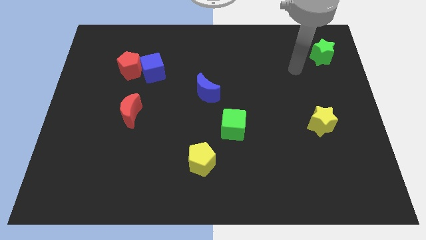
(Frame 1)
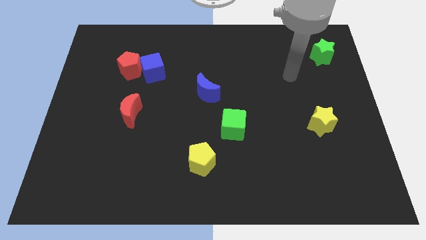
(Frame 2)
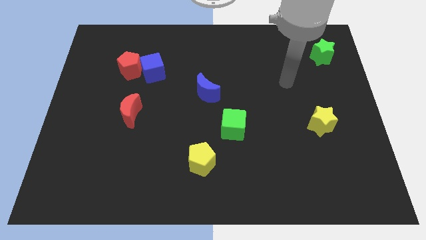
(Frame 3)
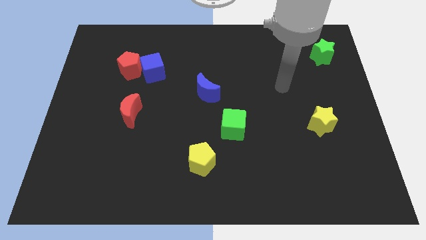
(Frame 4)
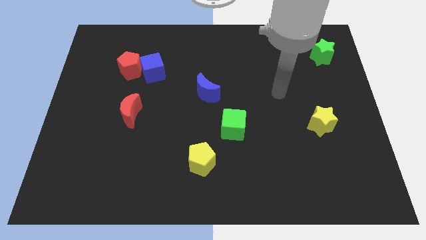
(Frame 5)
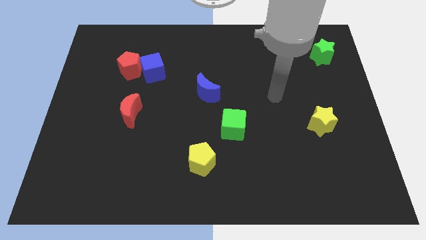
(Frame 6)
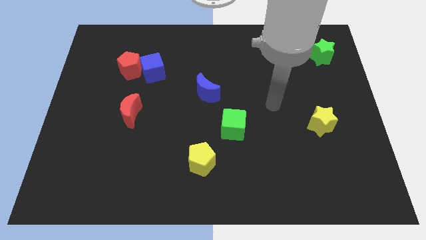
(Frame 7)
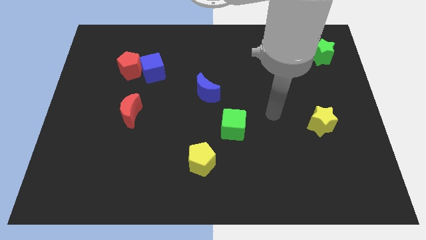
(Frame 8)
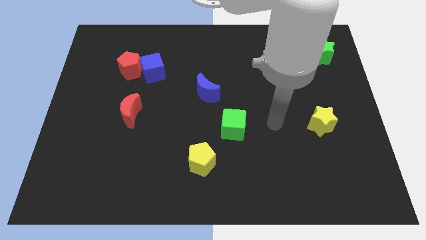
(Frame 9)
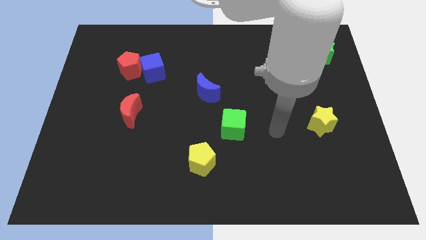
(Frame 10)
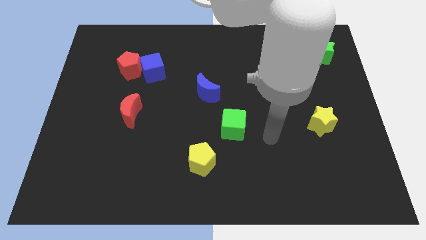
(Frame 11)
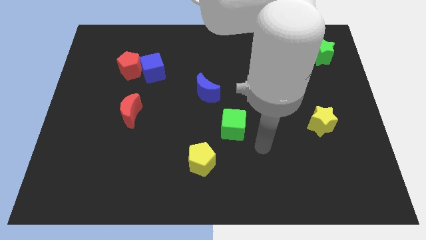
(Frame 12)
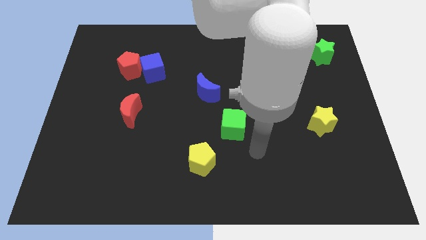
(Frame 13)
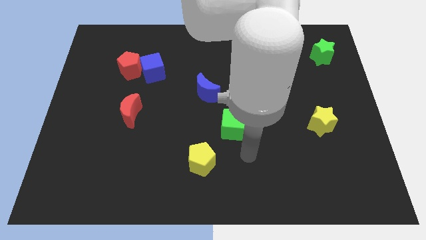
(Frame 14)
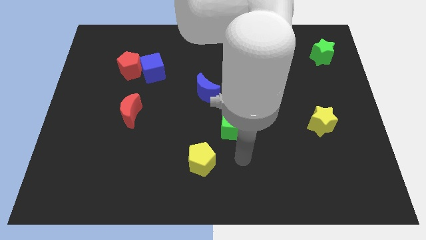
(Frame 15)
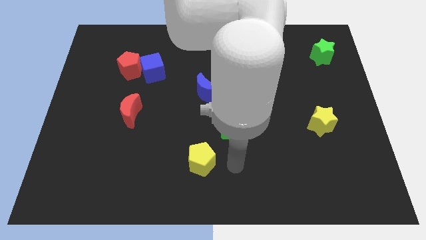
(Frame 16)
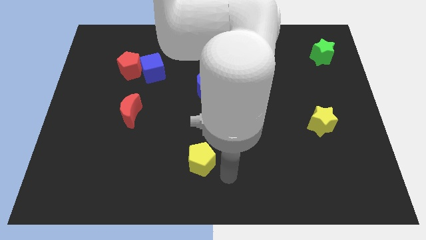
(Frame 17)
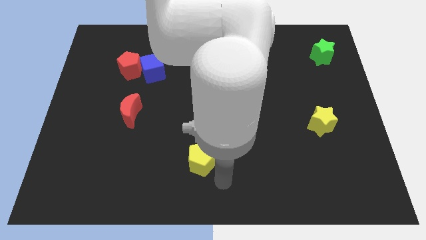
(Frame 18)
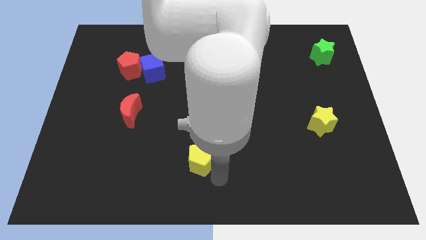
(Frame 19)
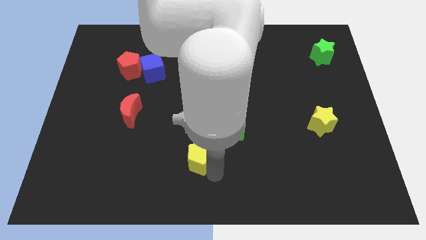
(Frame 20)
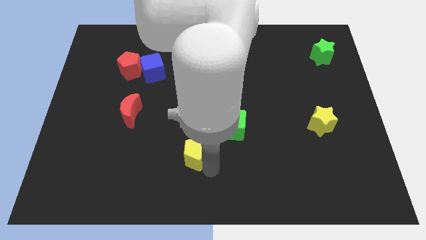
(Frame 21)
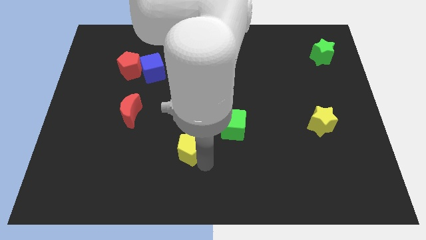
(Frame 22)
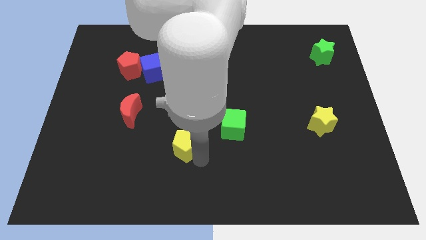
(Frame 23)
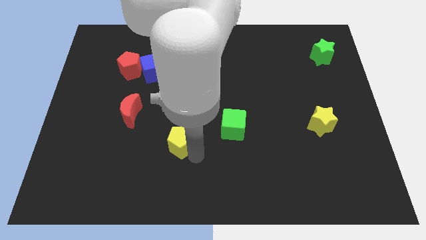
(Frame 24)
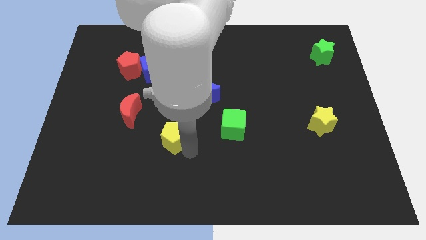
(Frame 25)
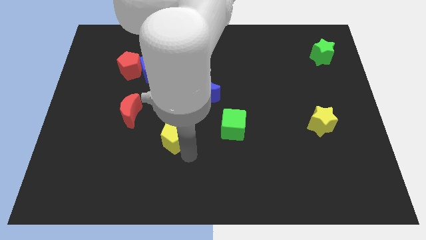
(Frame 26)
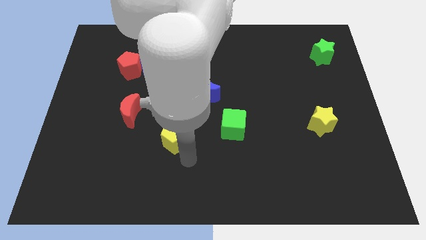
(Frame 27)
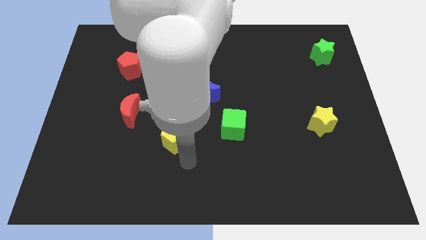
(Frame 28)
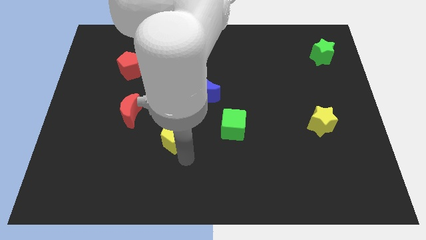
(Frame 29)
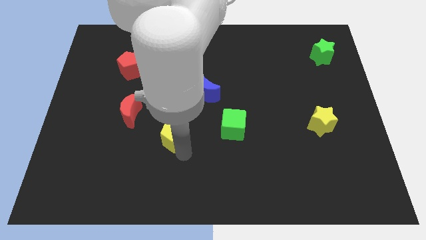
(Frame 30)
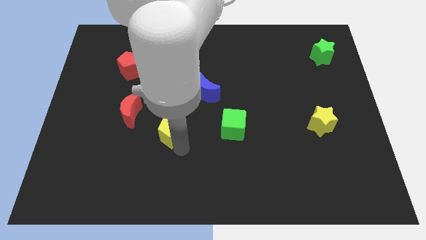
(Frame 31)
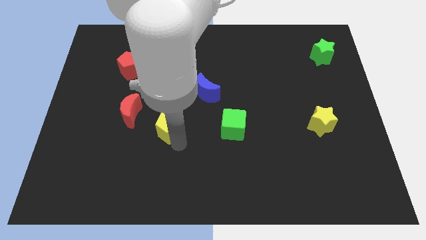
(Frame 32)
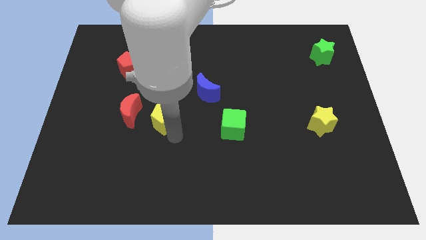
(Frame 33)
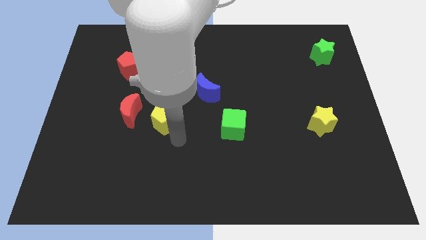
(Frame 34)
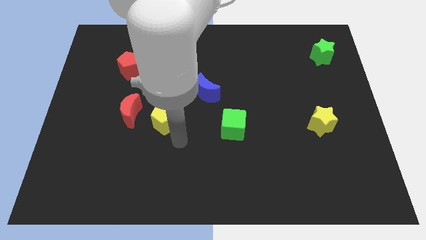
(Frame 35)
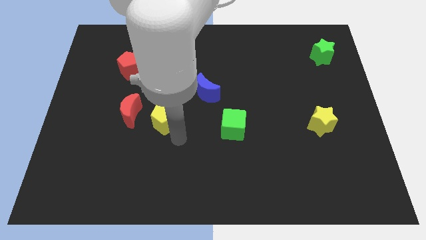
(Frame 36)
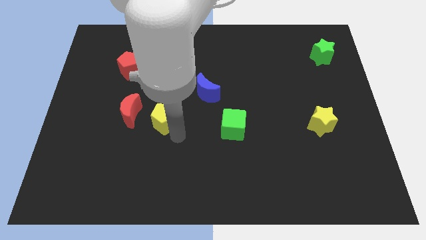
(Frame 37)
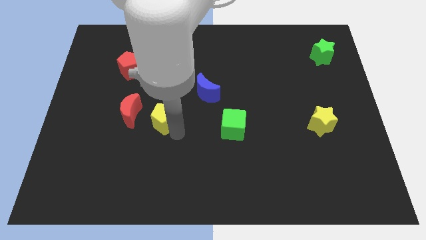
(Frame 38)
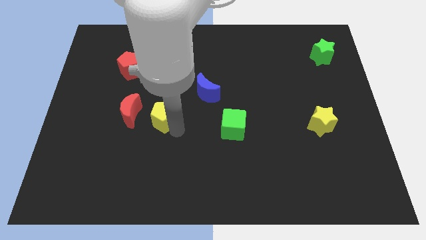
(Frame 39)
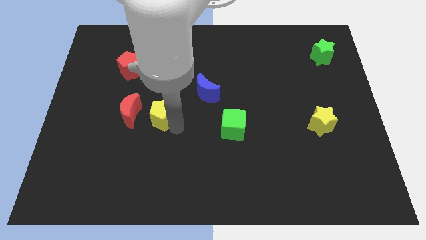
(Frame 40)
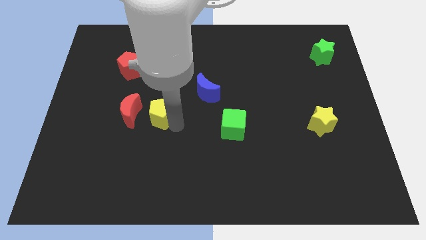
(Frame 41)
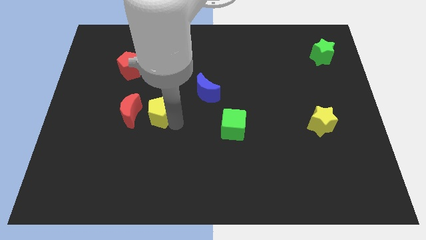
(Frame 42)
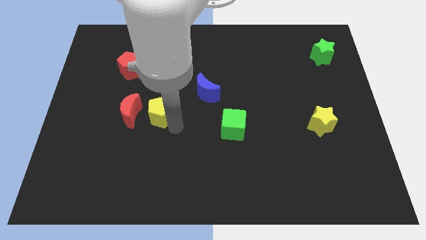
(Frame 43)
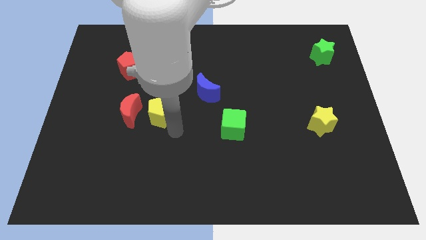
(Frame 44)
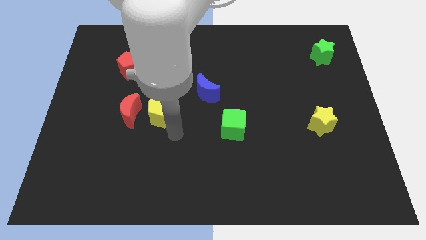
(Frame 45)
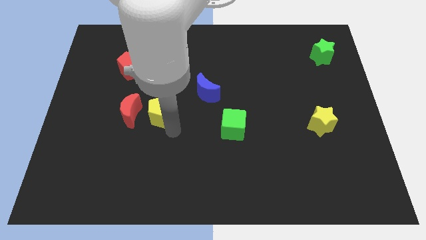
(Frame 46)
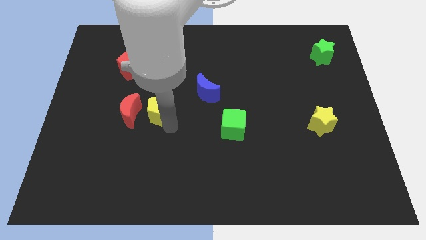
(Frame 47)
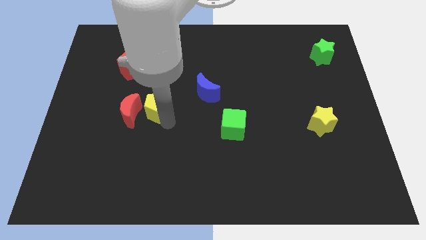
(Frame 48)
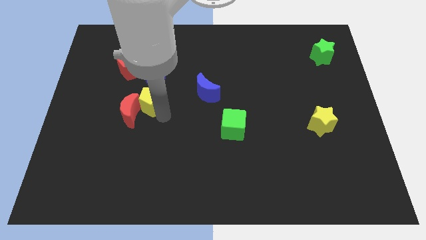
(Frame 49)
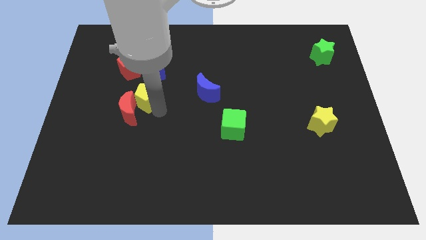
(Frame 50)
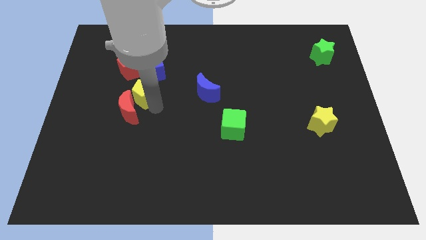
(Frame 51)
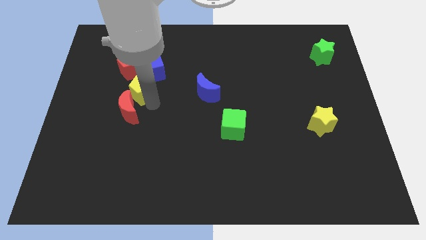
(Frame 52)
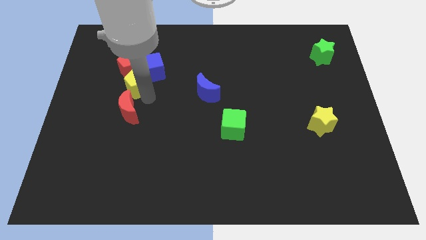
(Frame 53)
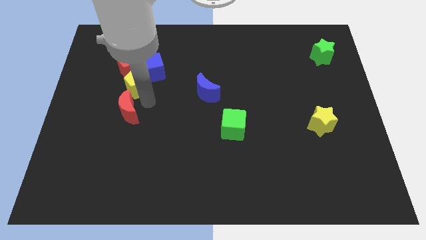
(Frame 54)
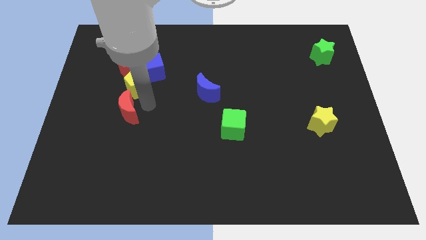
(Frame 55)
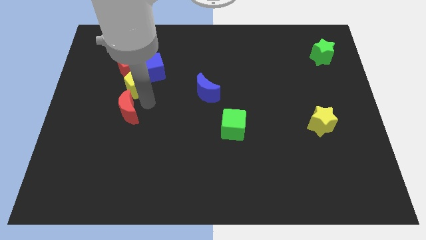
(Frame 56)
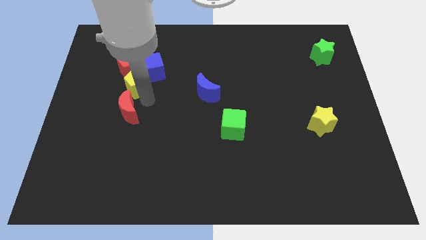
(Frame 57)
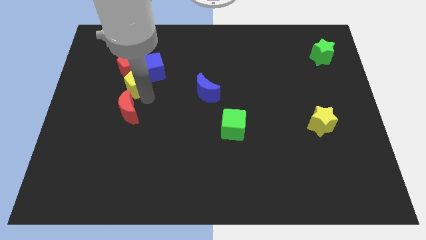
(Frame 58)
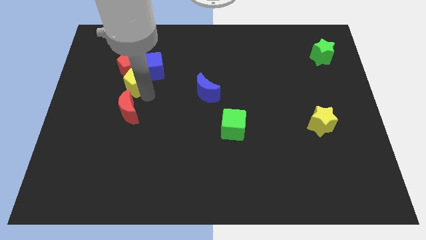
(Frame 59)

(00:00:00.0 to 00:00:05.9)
put the yellow pentagon to the red pentagon

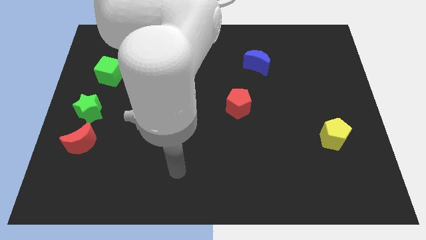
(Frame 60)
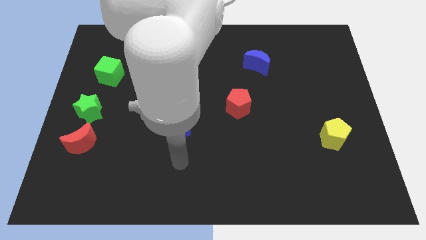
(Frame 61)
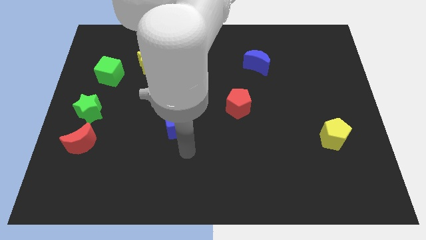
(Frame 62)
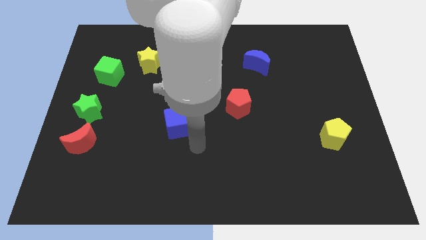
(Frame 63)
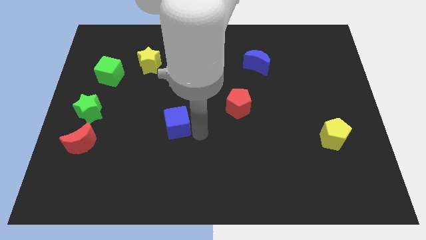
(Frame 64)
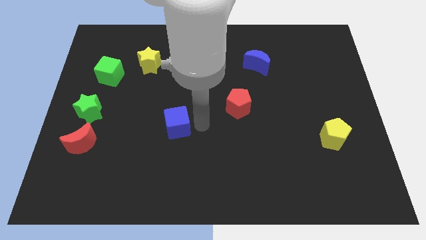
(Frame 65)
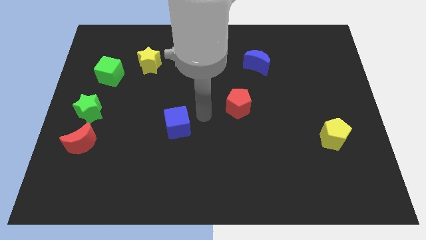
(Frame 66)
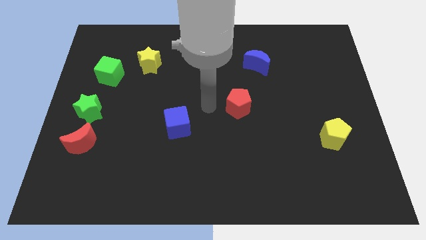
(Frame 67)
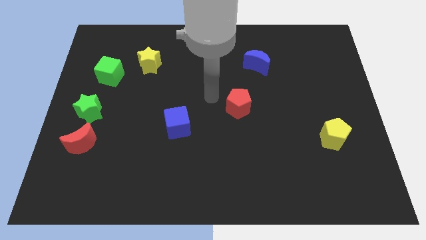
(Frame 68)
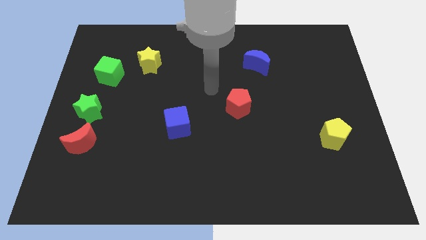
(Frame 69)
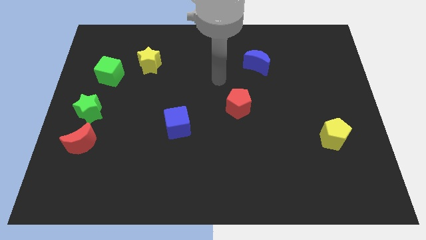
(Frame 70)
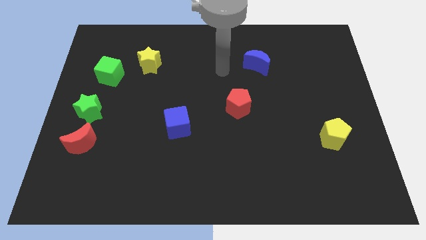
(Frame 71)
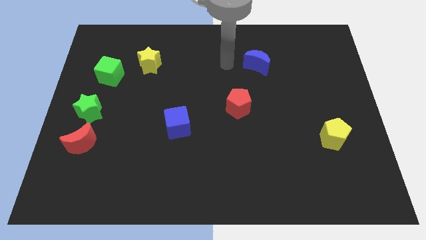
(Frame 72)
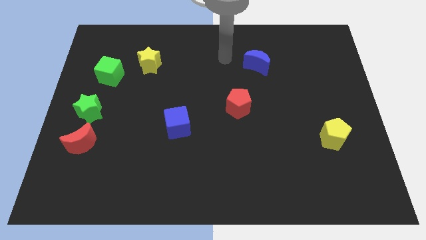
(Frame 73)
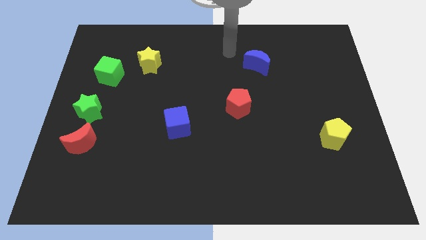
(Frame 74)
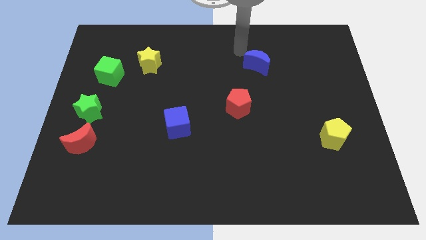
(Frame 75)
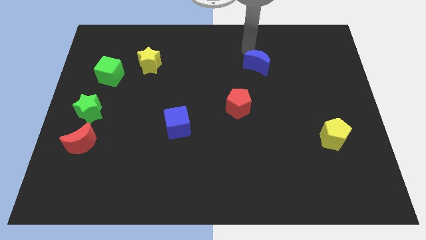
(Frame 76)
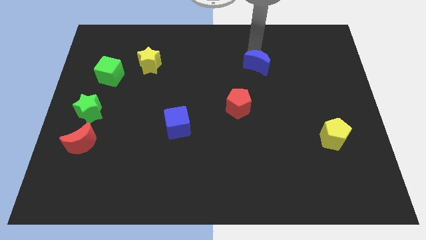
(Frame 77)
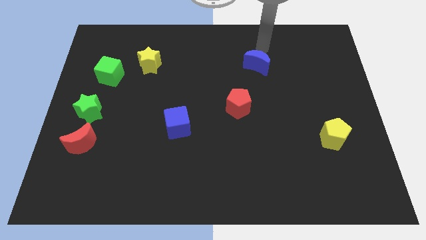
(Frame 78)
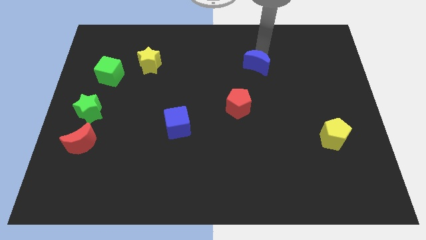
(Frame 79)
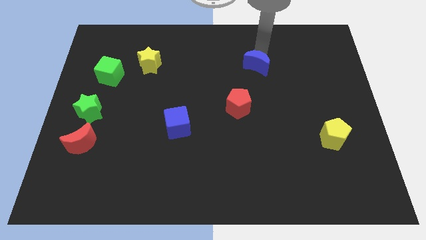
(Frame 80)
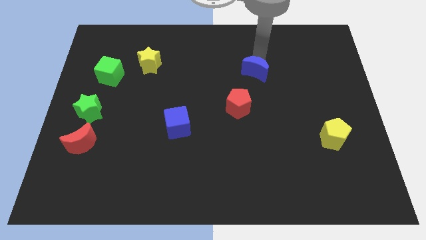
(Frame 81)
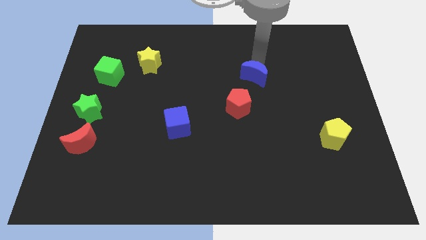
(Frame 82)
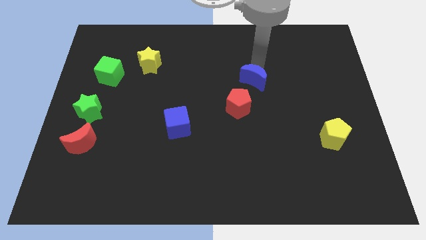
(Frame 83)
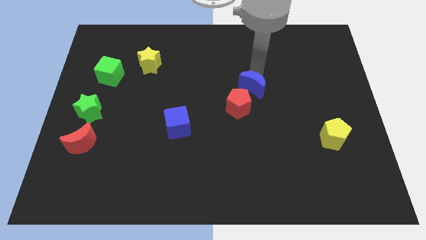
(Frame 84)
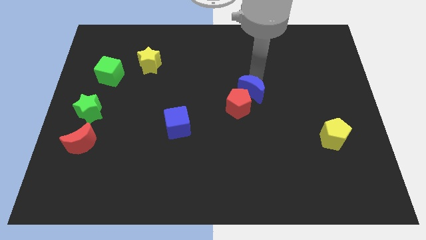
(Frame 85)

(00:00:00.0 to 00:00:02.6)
slide the blue moon next to the red pentagon
